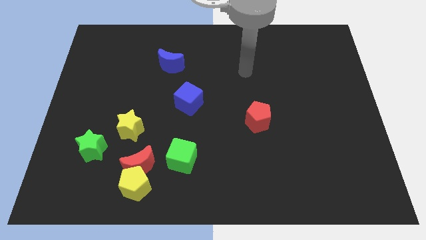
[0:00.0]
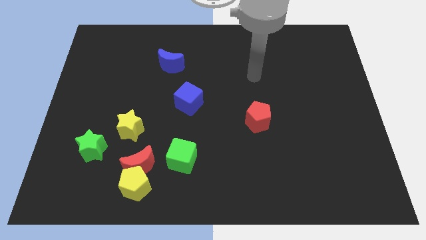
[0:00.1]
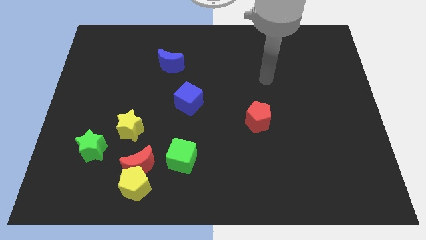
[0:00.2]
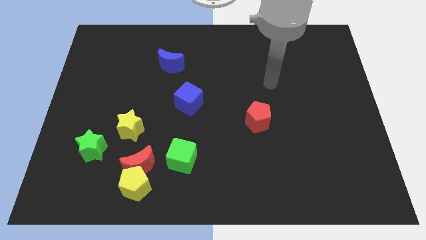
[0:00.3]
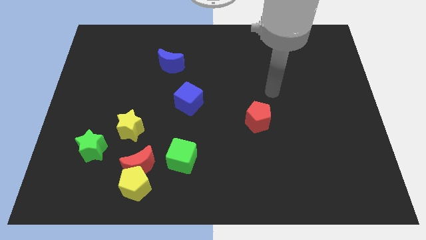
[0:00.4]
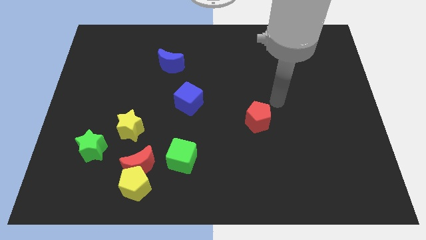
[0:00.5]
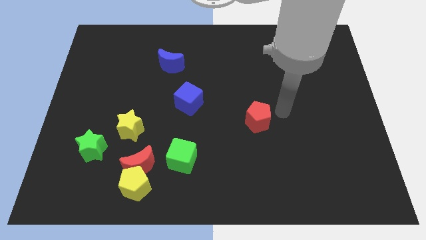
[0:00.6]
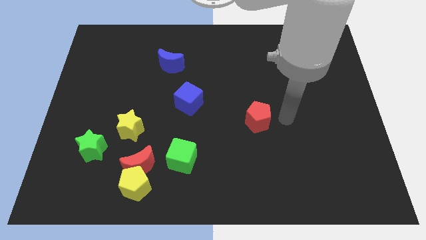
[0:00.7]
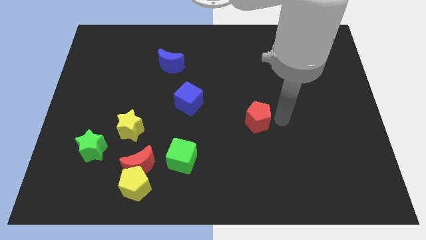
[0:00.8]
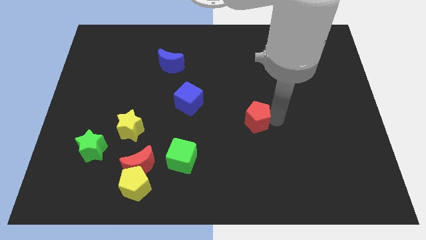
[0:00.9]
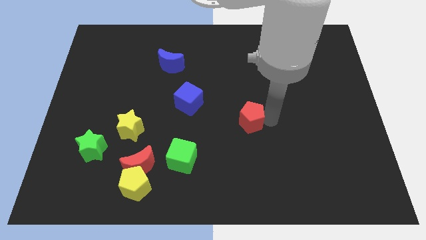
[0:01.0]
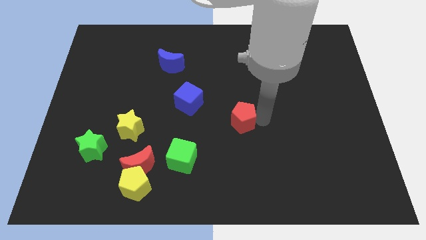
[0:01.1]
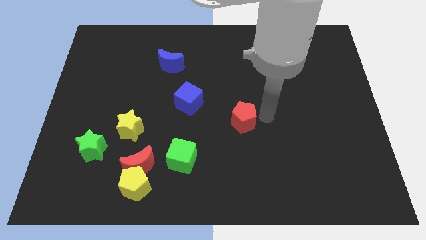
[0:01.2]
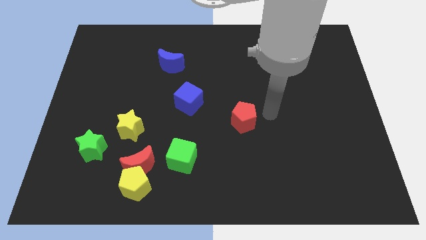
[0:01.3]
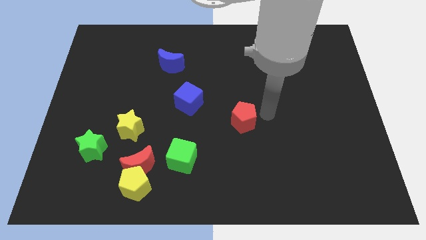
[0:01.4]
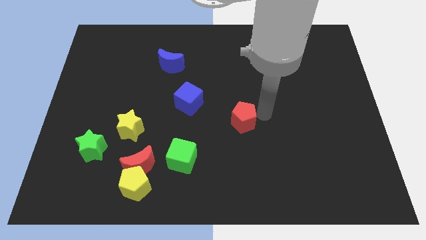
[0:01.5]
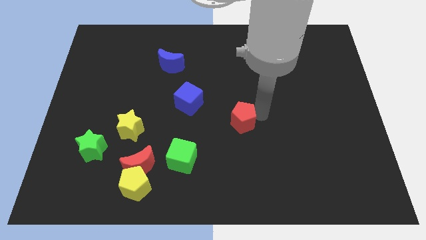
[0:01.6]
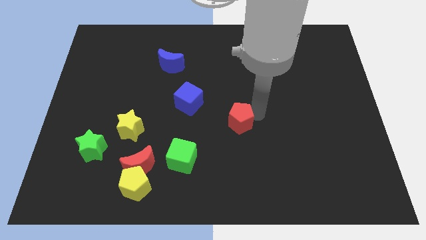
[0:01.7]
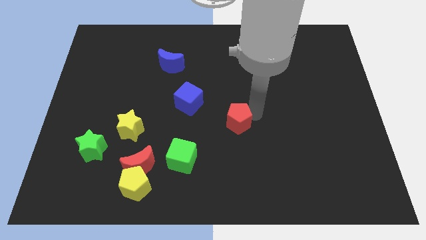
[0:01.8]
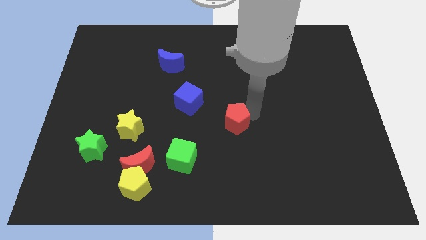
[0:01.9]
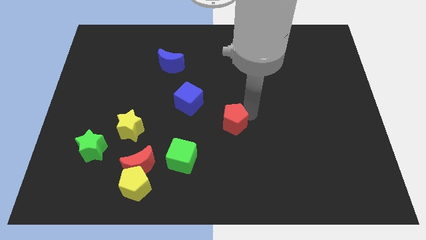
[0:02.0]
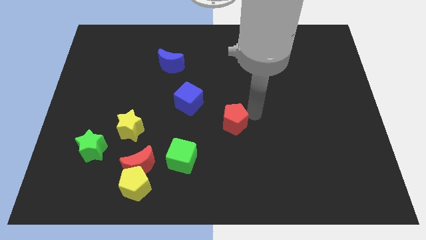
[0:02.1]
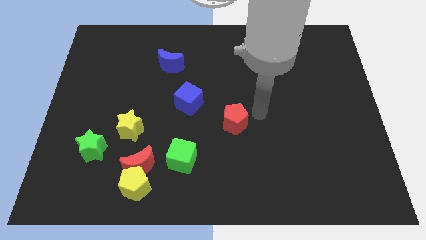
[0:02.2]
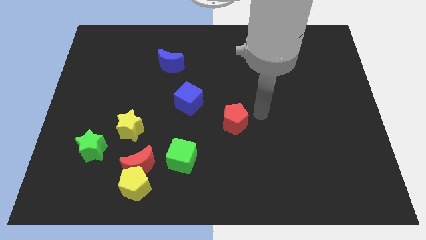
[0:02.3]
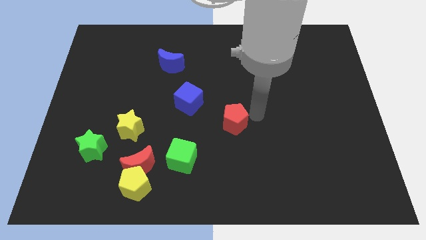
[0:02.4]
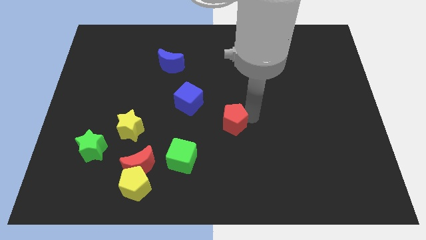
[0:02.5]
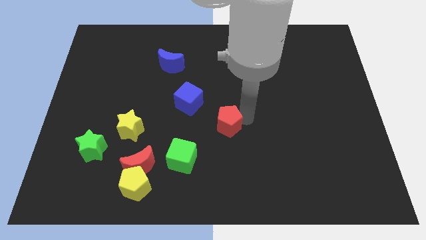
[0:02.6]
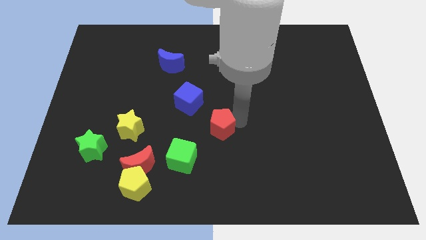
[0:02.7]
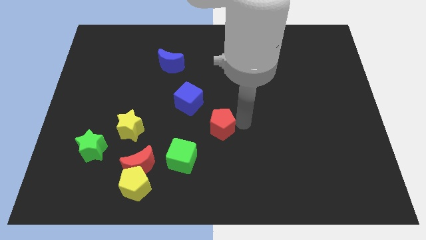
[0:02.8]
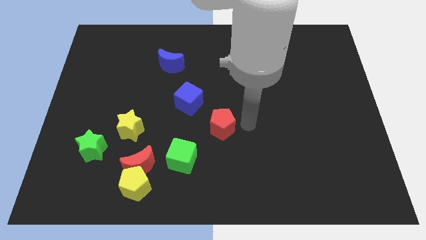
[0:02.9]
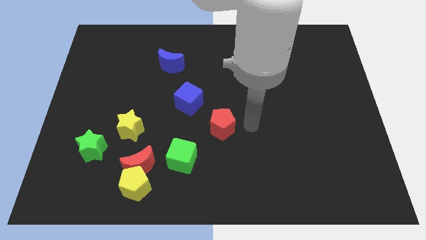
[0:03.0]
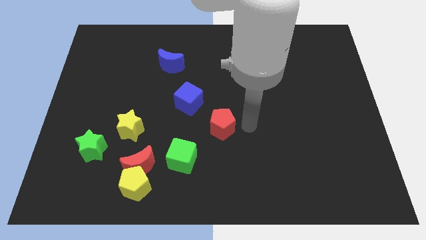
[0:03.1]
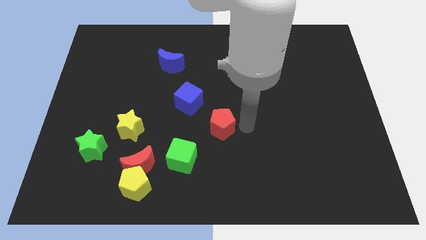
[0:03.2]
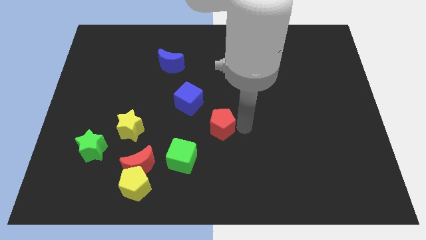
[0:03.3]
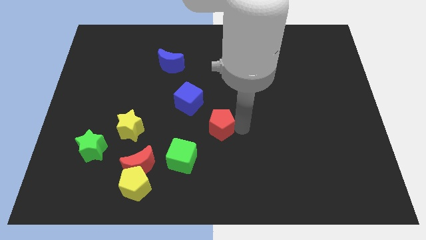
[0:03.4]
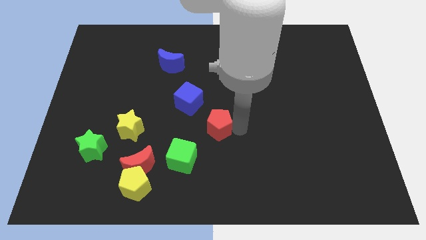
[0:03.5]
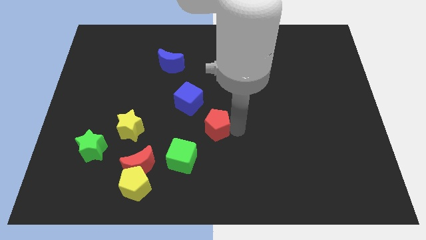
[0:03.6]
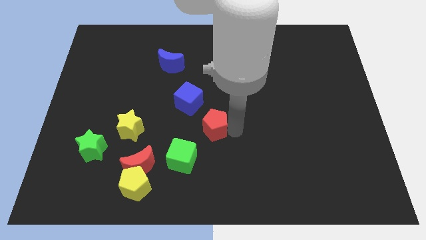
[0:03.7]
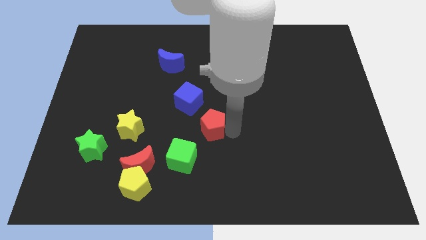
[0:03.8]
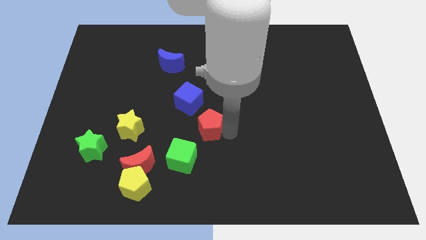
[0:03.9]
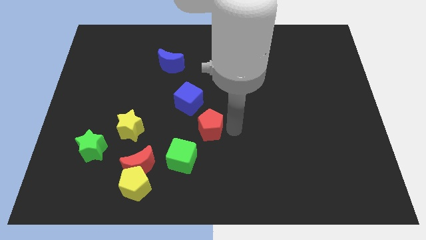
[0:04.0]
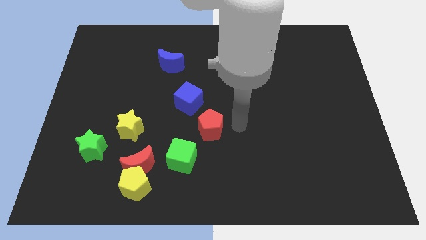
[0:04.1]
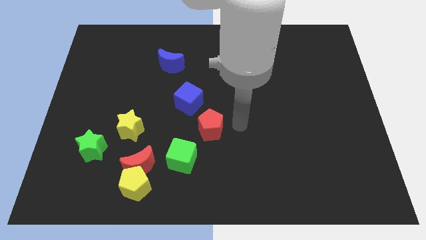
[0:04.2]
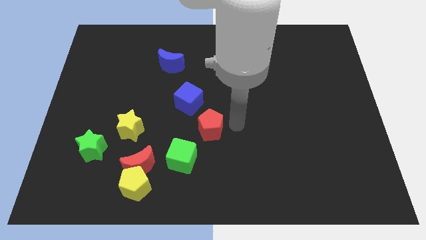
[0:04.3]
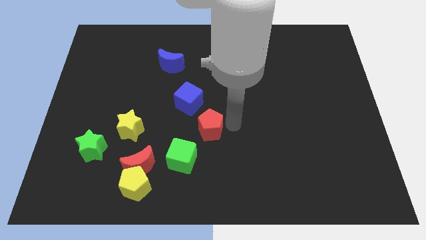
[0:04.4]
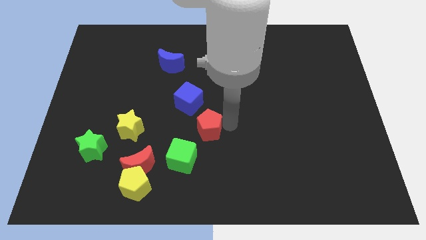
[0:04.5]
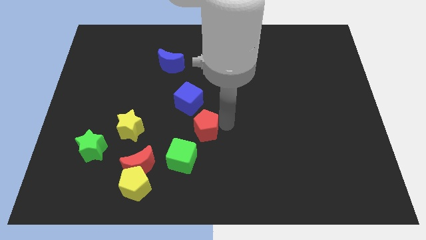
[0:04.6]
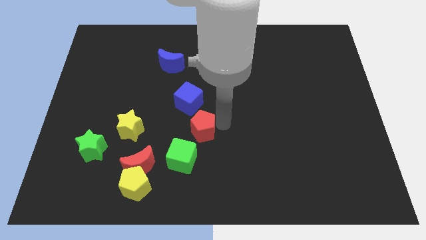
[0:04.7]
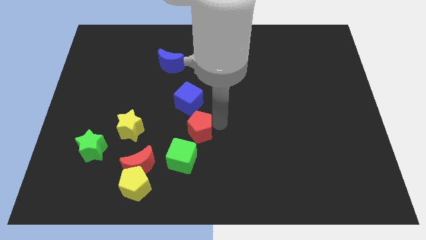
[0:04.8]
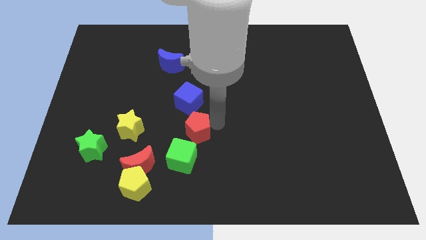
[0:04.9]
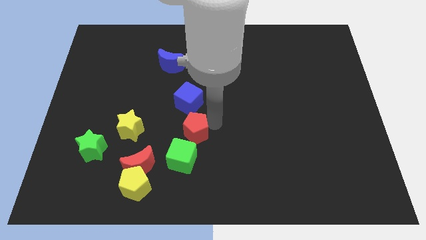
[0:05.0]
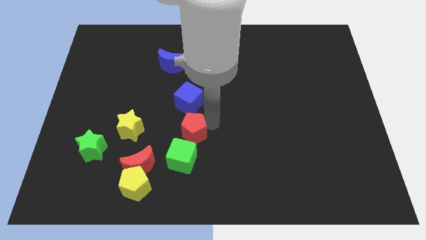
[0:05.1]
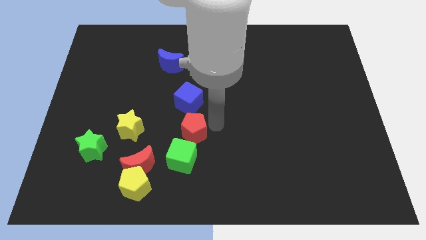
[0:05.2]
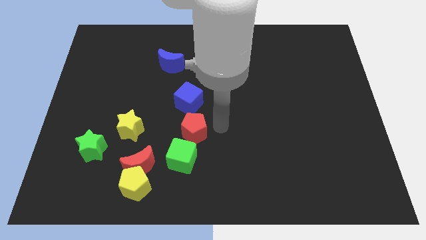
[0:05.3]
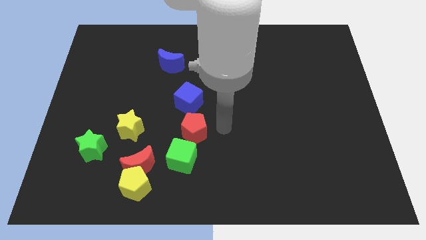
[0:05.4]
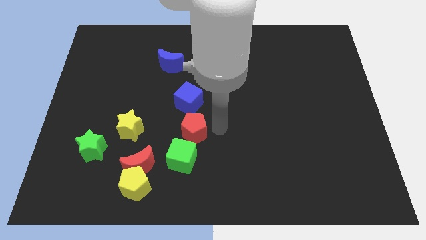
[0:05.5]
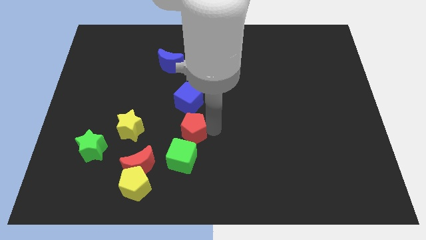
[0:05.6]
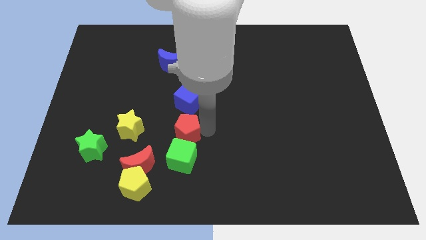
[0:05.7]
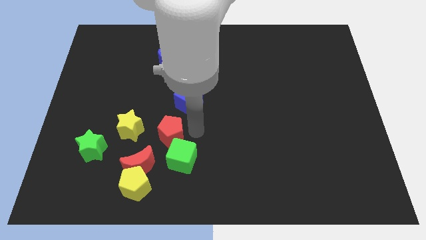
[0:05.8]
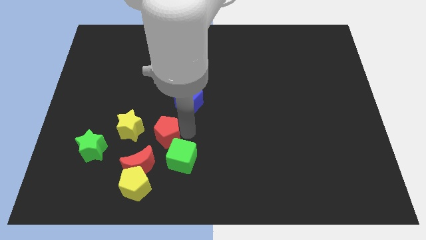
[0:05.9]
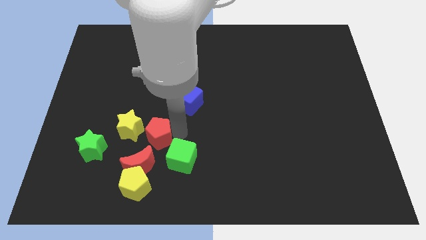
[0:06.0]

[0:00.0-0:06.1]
push the red pentagon above the yellow pentagon

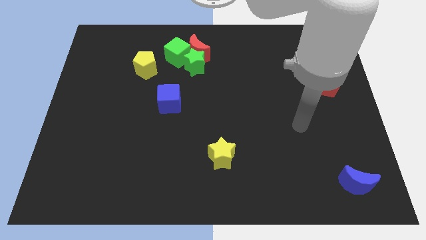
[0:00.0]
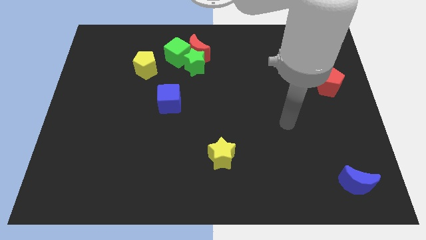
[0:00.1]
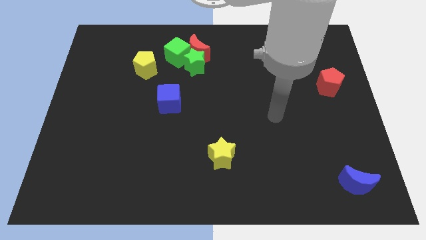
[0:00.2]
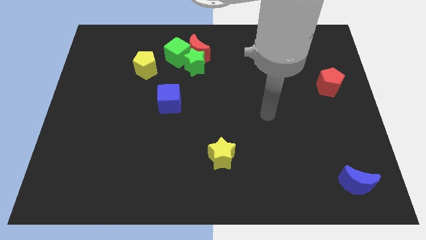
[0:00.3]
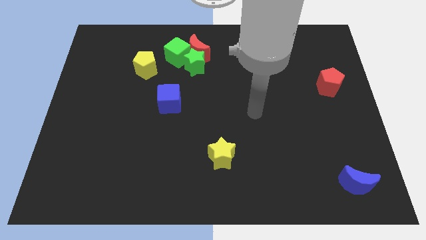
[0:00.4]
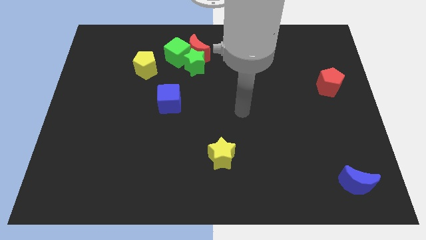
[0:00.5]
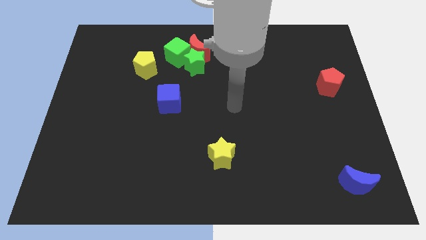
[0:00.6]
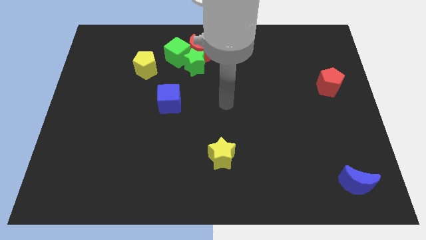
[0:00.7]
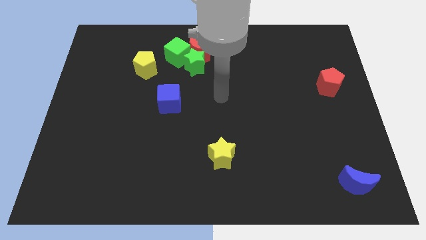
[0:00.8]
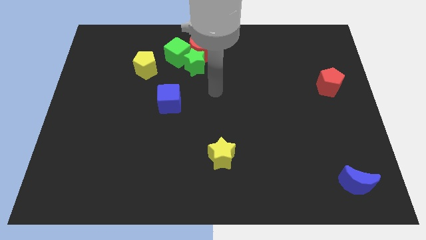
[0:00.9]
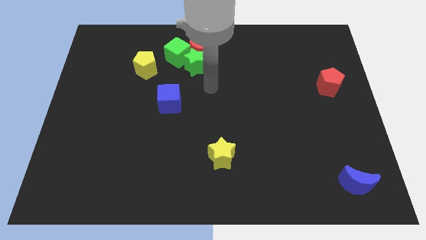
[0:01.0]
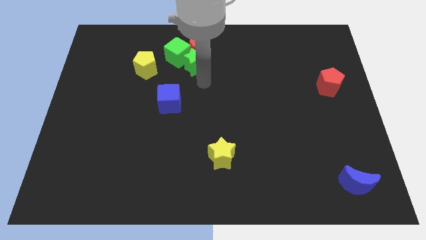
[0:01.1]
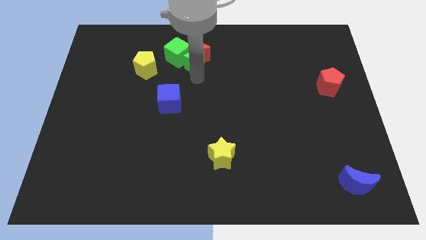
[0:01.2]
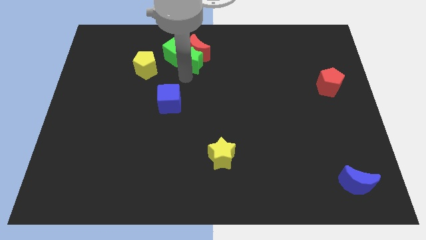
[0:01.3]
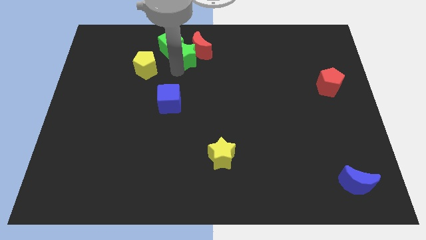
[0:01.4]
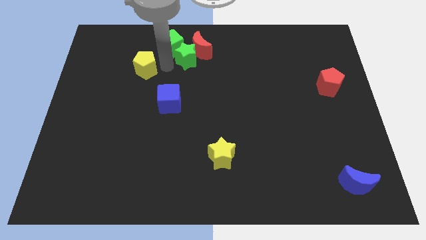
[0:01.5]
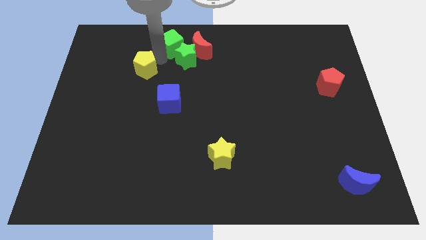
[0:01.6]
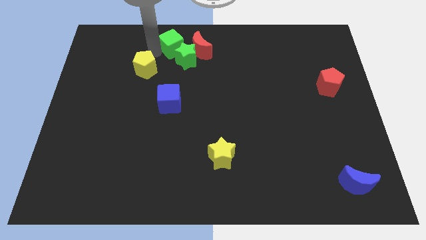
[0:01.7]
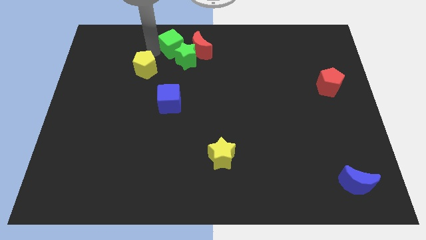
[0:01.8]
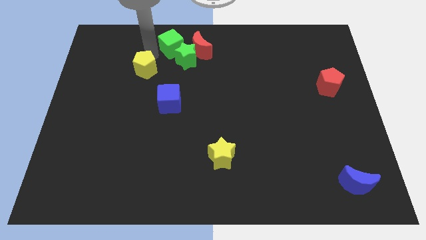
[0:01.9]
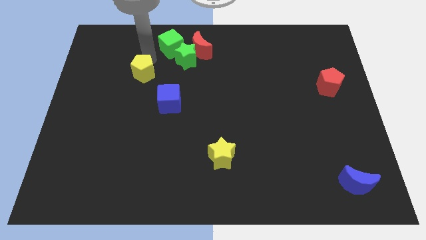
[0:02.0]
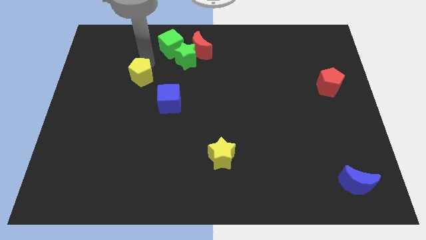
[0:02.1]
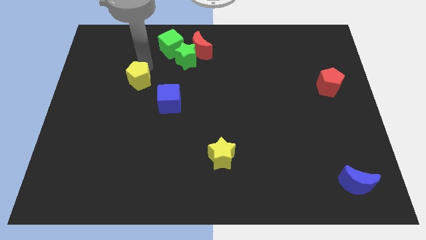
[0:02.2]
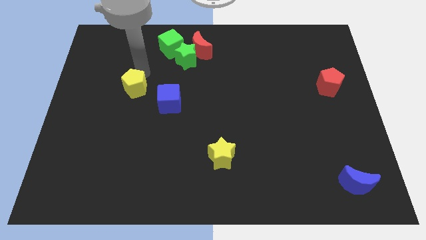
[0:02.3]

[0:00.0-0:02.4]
push the yellow pentagon to the left side of the blue cube
